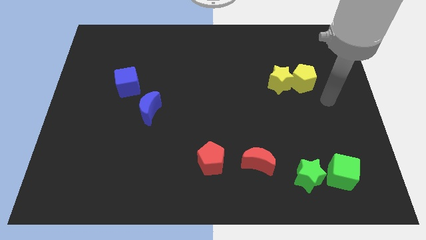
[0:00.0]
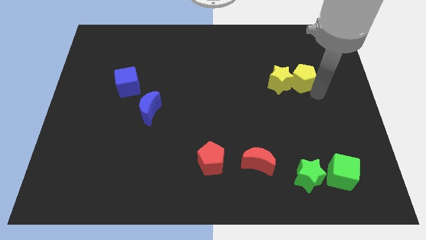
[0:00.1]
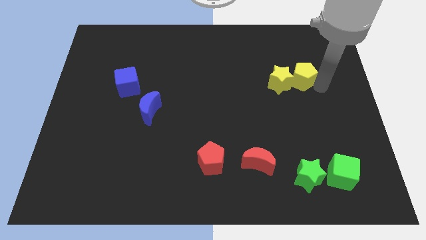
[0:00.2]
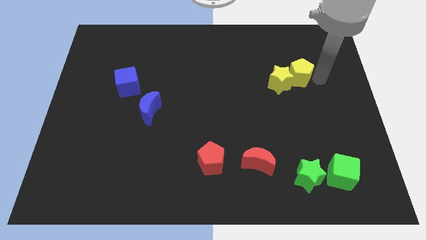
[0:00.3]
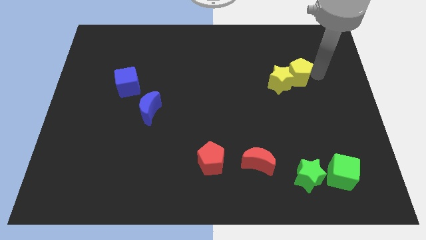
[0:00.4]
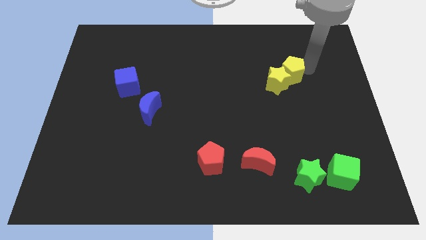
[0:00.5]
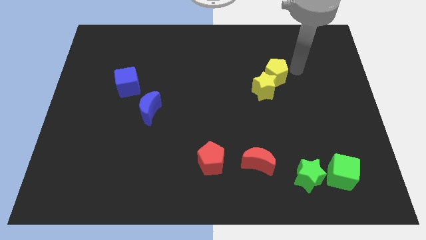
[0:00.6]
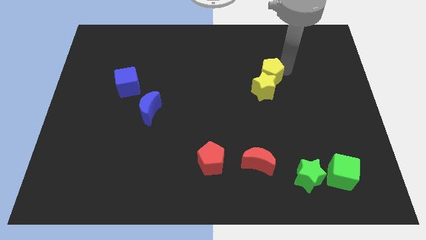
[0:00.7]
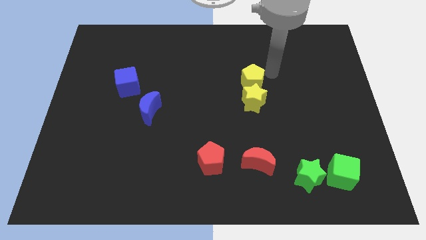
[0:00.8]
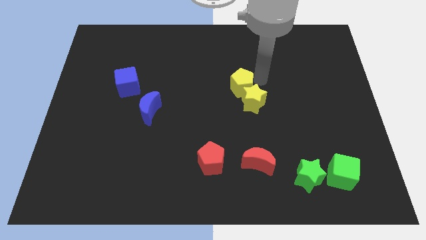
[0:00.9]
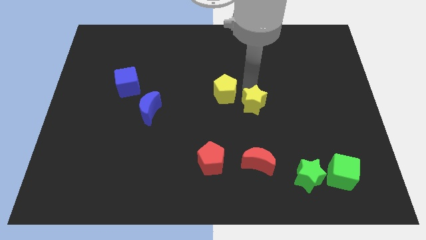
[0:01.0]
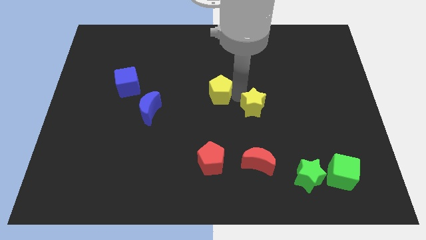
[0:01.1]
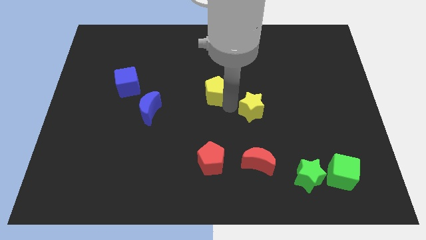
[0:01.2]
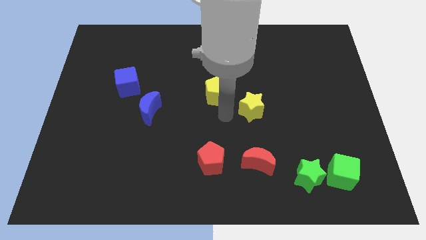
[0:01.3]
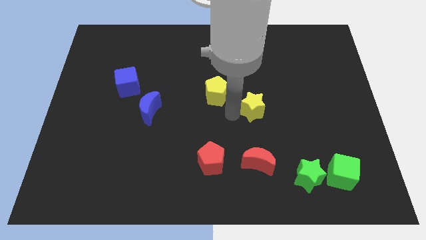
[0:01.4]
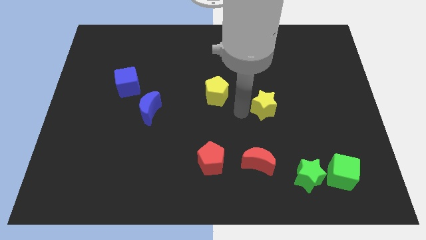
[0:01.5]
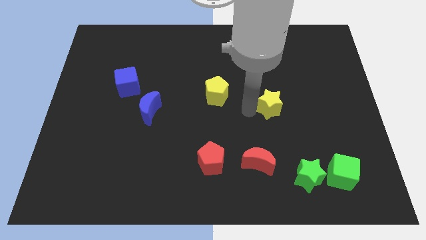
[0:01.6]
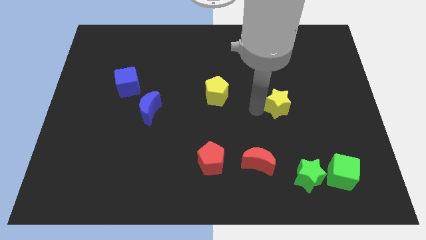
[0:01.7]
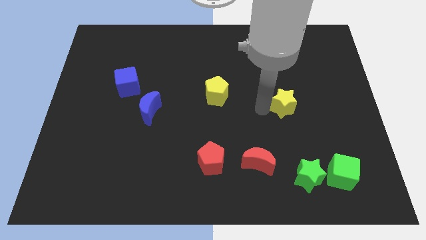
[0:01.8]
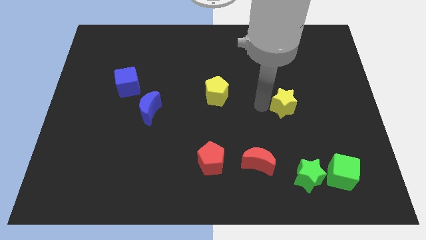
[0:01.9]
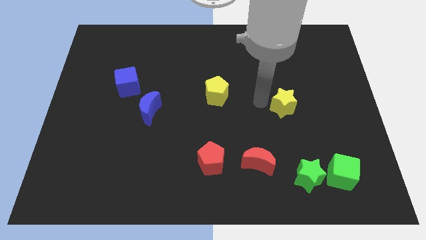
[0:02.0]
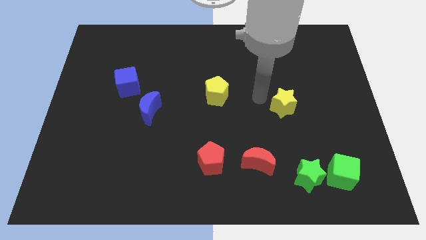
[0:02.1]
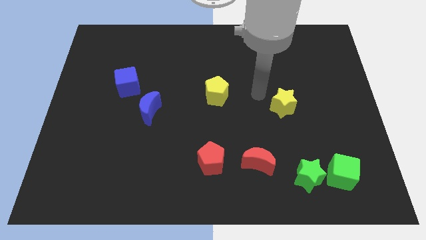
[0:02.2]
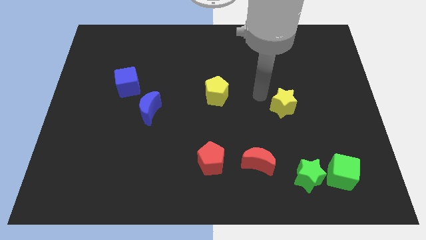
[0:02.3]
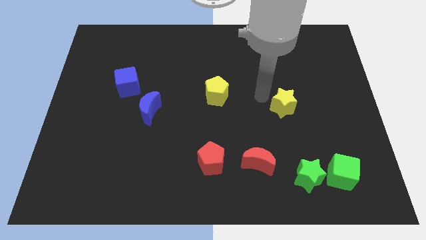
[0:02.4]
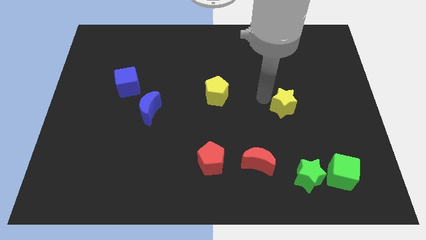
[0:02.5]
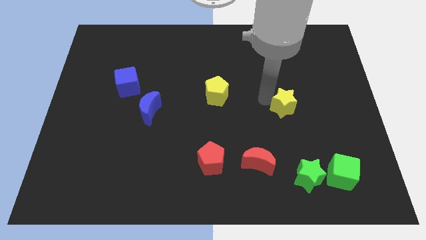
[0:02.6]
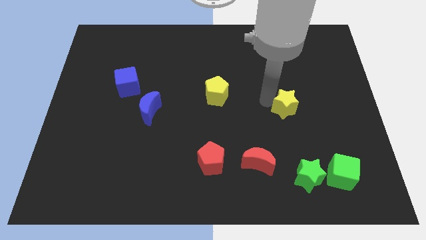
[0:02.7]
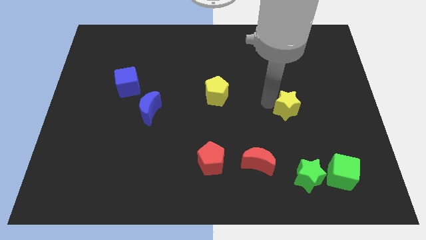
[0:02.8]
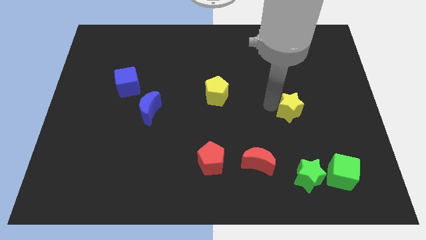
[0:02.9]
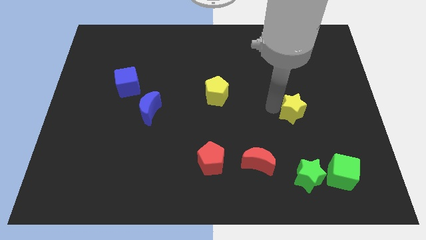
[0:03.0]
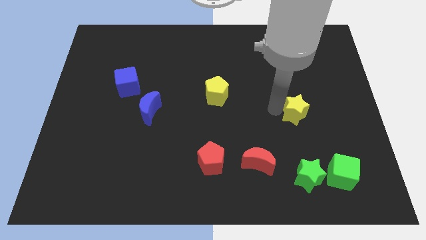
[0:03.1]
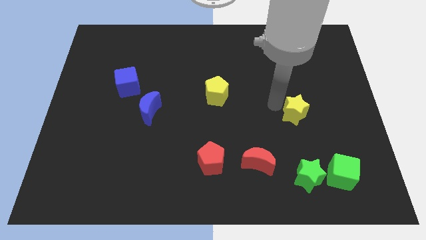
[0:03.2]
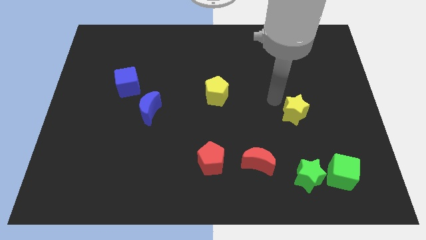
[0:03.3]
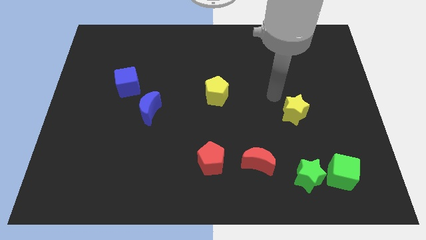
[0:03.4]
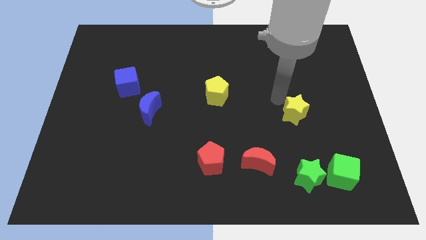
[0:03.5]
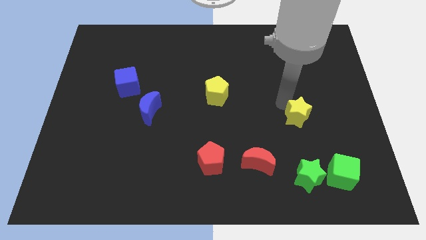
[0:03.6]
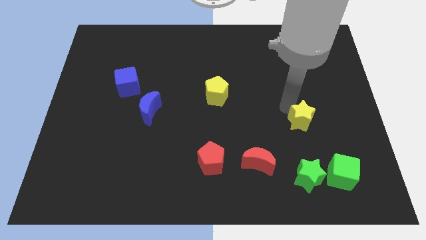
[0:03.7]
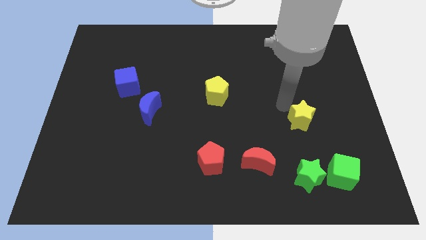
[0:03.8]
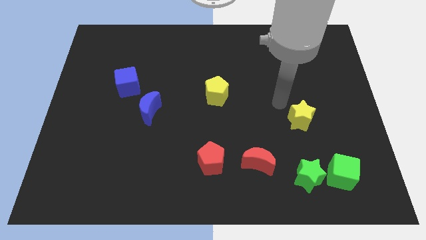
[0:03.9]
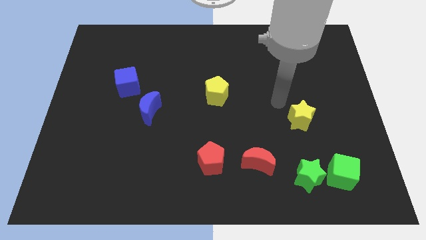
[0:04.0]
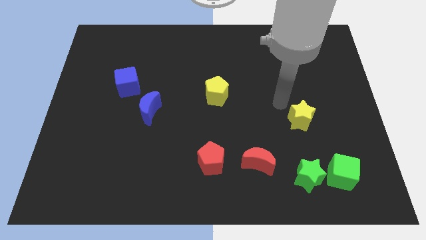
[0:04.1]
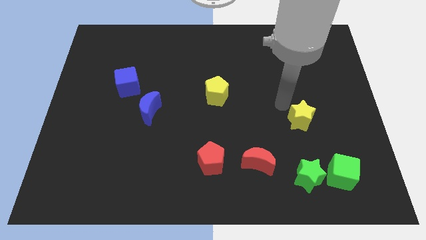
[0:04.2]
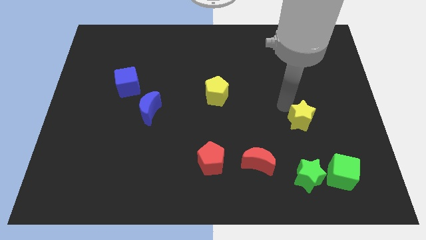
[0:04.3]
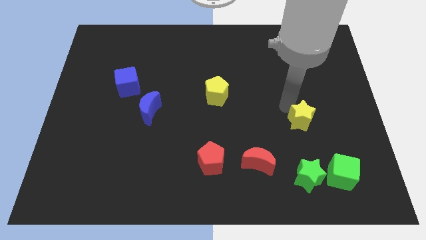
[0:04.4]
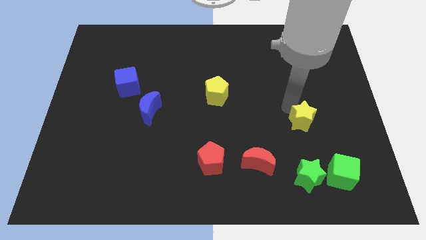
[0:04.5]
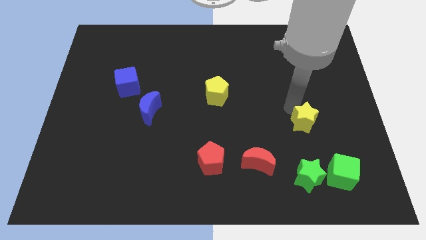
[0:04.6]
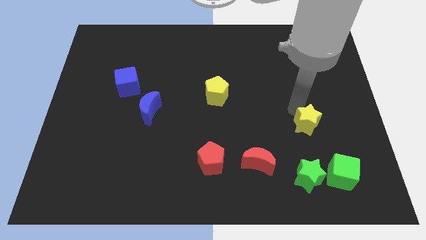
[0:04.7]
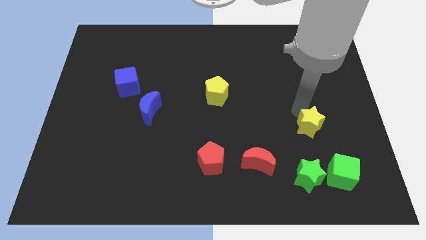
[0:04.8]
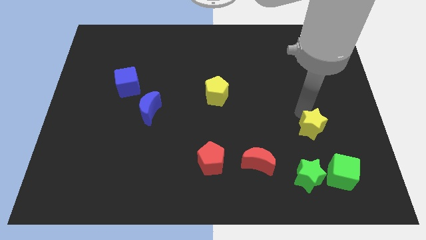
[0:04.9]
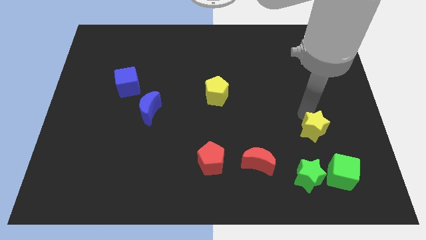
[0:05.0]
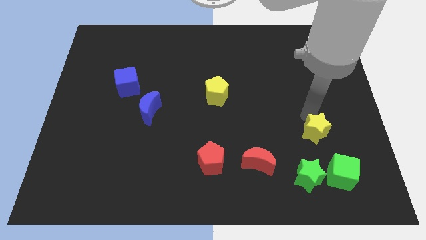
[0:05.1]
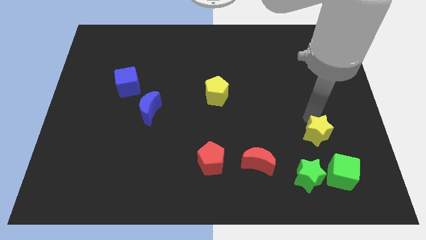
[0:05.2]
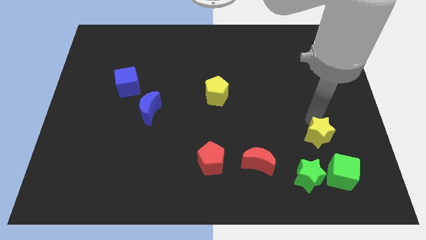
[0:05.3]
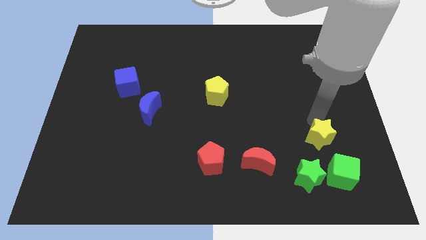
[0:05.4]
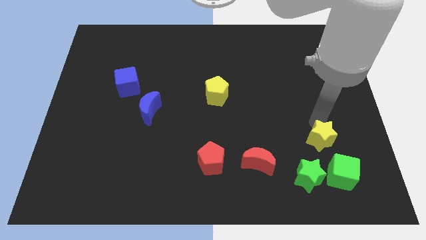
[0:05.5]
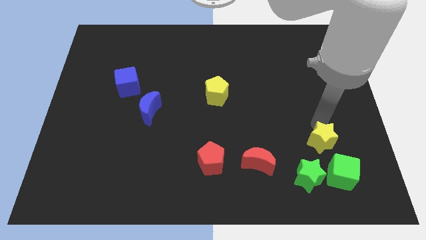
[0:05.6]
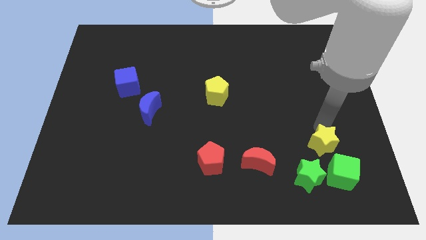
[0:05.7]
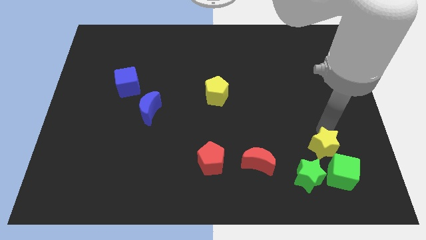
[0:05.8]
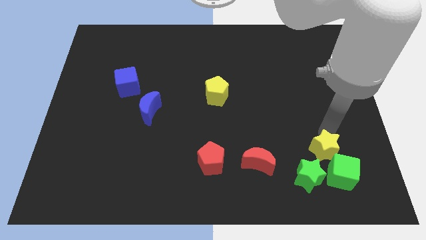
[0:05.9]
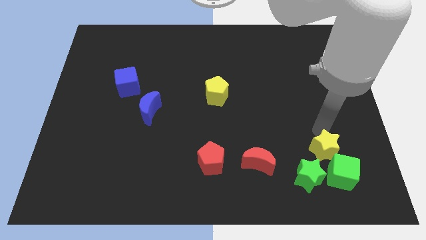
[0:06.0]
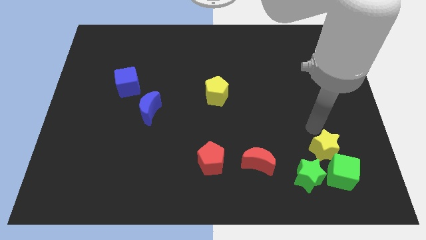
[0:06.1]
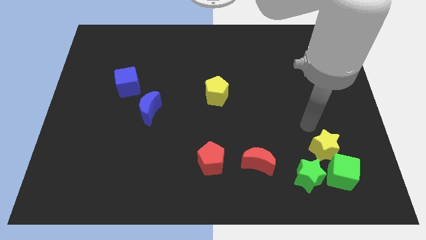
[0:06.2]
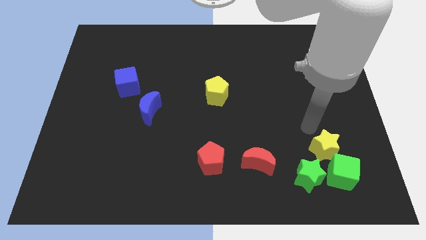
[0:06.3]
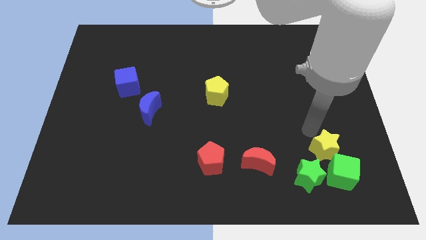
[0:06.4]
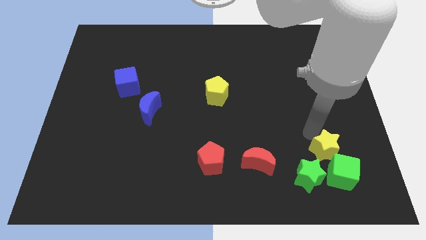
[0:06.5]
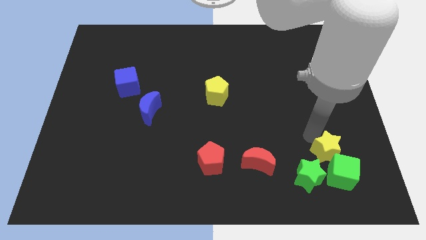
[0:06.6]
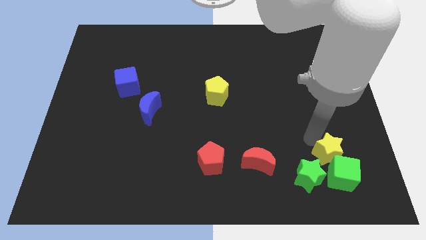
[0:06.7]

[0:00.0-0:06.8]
push the yellow star close to the green cube
